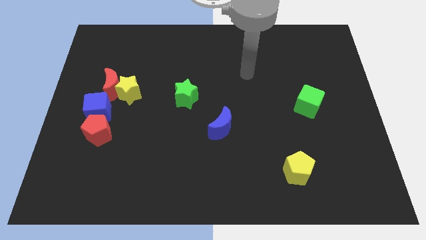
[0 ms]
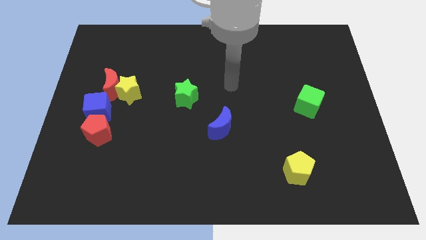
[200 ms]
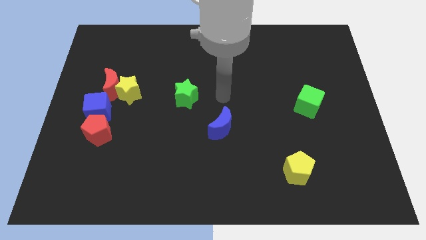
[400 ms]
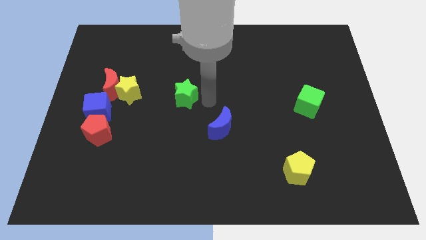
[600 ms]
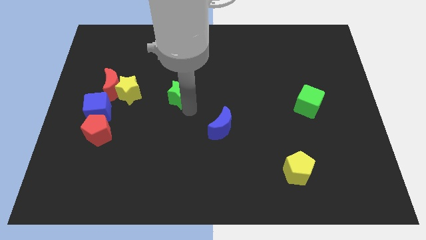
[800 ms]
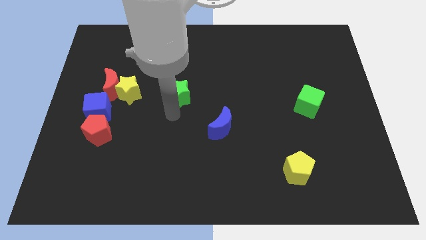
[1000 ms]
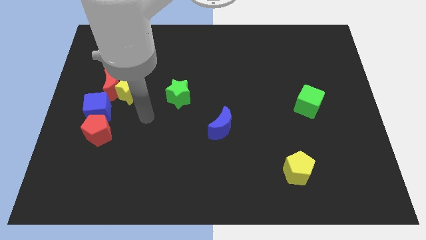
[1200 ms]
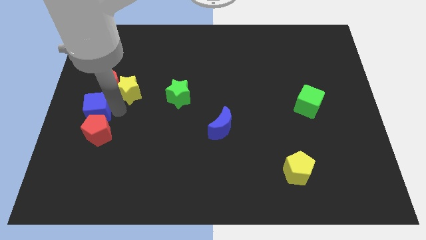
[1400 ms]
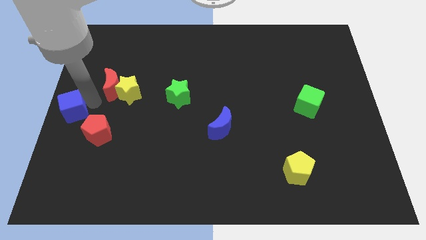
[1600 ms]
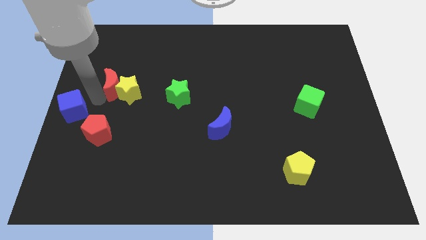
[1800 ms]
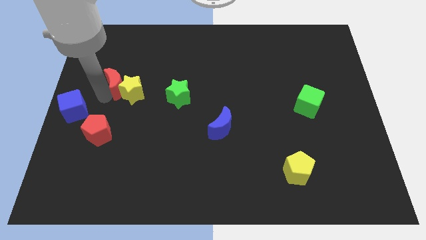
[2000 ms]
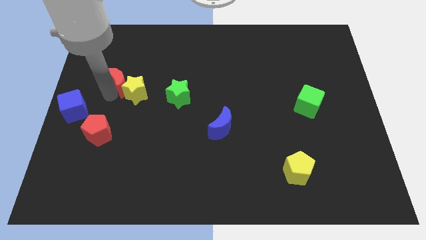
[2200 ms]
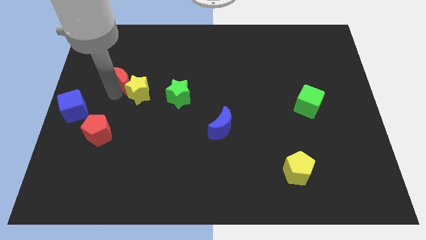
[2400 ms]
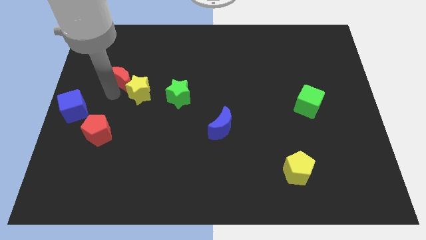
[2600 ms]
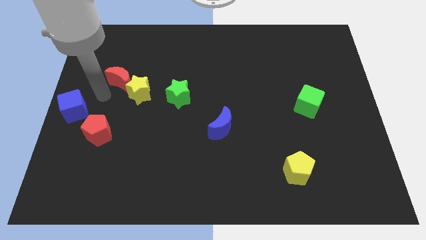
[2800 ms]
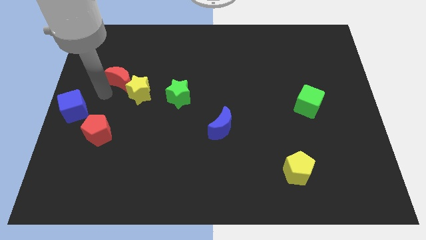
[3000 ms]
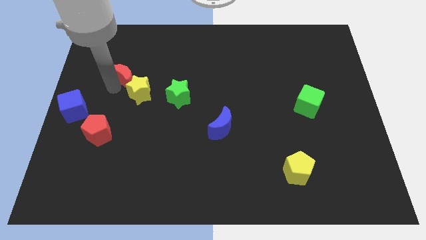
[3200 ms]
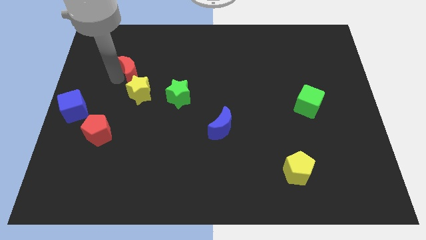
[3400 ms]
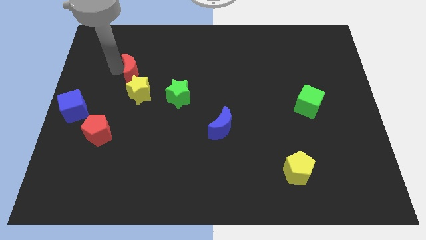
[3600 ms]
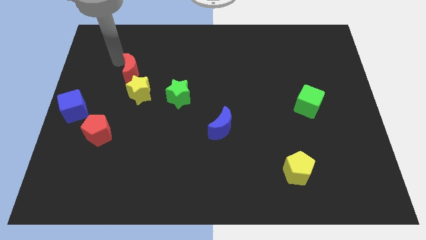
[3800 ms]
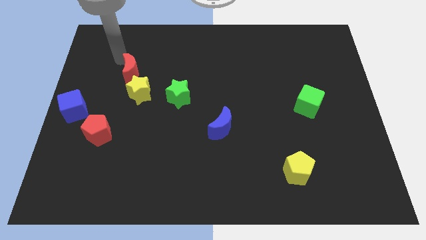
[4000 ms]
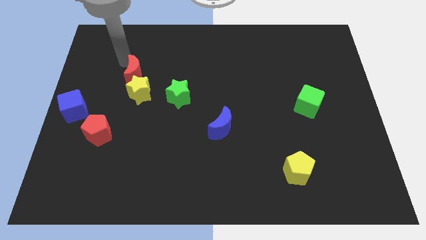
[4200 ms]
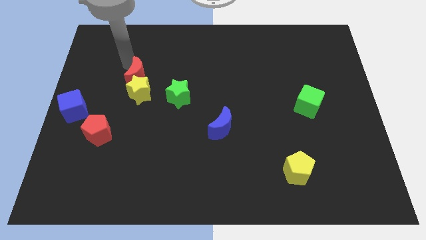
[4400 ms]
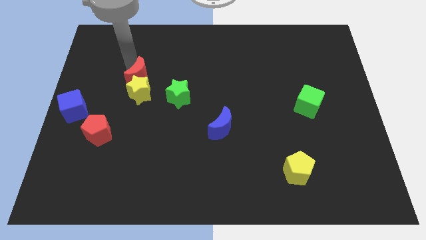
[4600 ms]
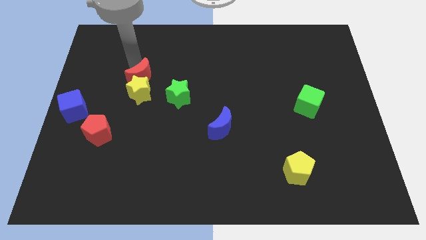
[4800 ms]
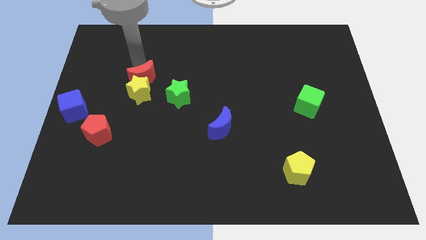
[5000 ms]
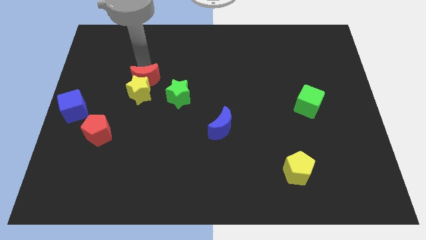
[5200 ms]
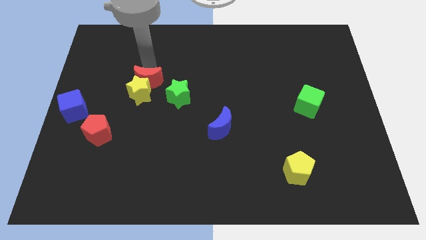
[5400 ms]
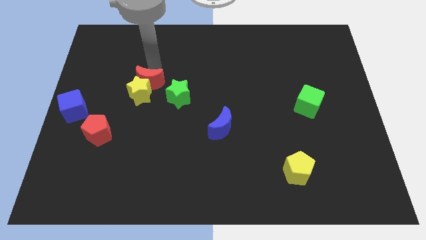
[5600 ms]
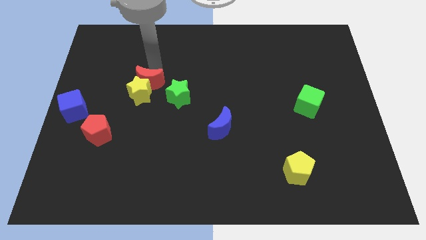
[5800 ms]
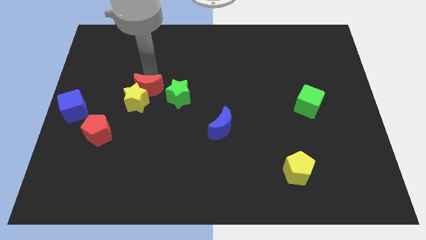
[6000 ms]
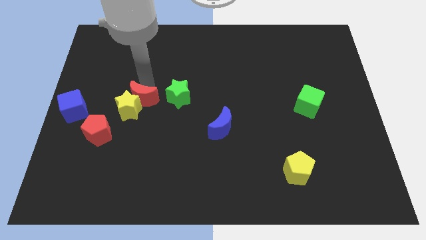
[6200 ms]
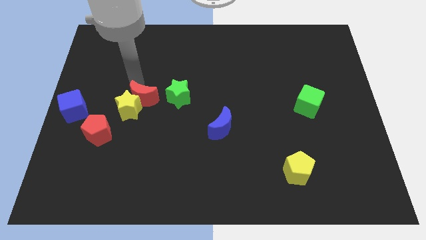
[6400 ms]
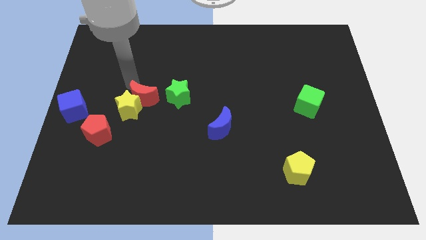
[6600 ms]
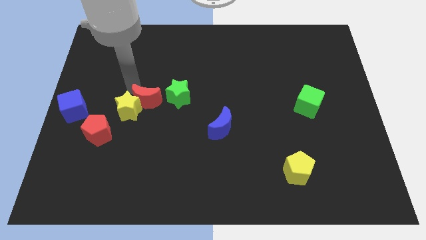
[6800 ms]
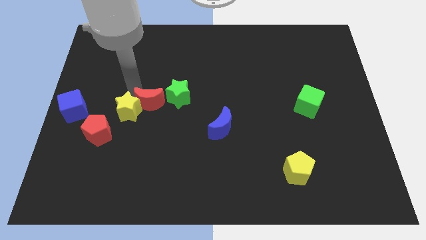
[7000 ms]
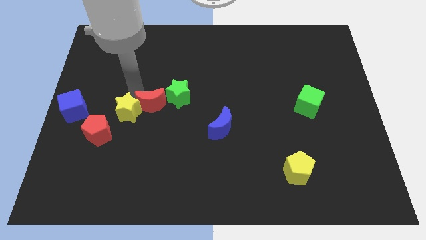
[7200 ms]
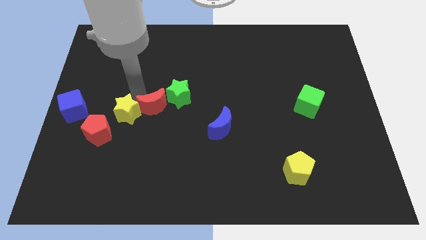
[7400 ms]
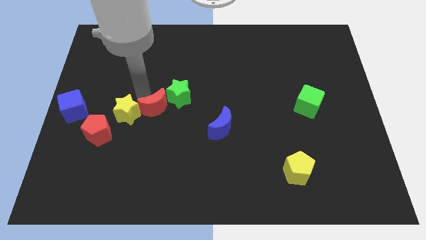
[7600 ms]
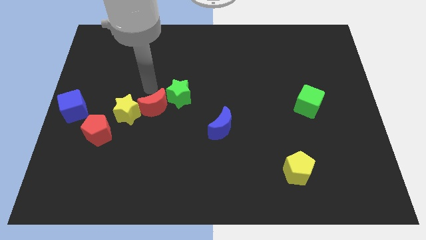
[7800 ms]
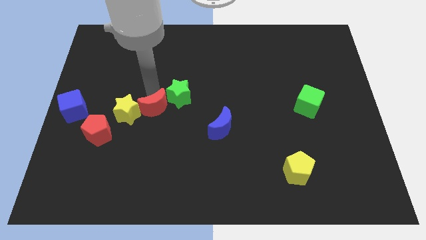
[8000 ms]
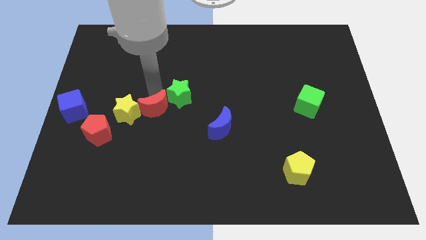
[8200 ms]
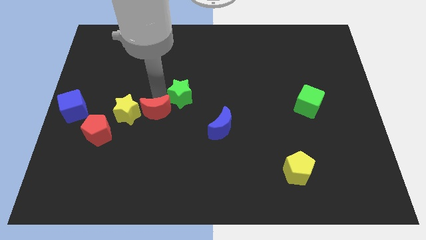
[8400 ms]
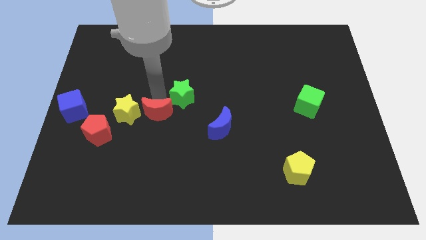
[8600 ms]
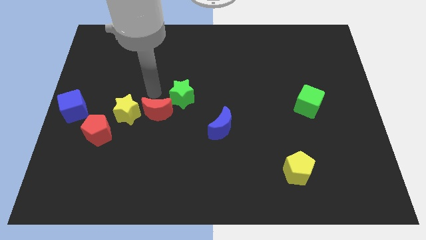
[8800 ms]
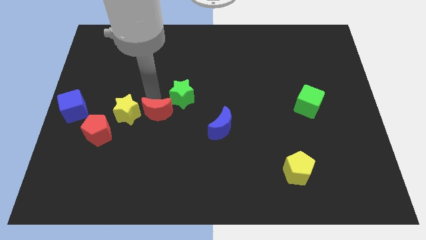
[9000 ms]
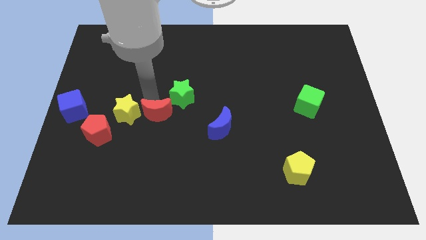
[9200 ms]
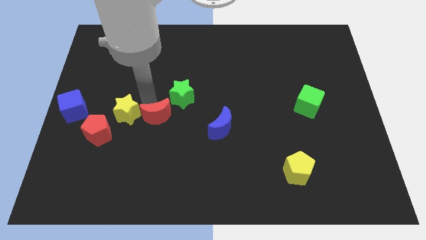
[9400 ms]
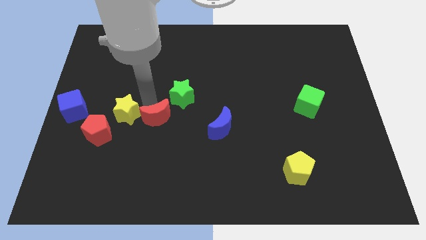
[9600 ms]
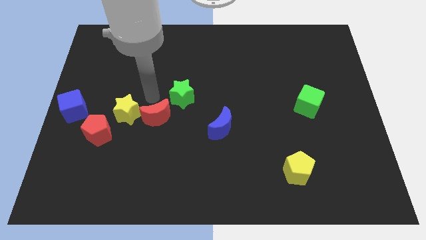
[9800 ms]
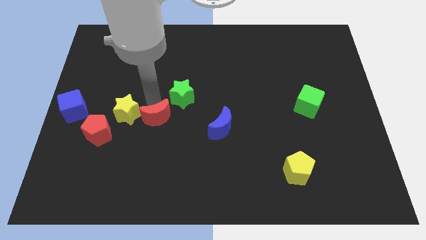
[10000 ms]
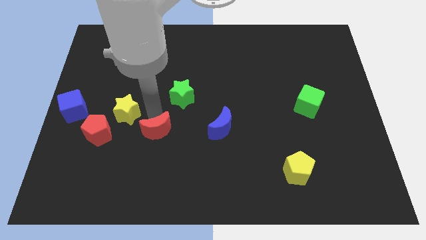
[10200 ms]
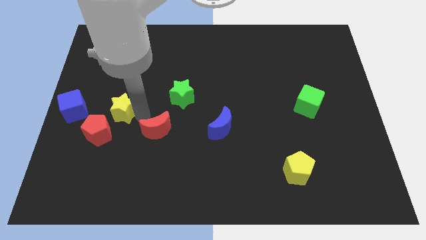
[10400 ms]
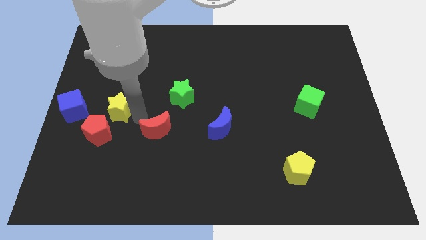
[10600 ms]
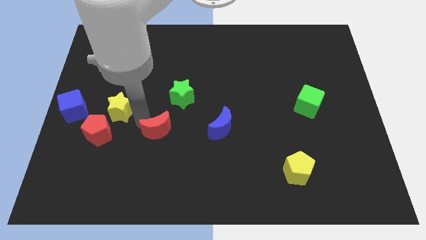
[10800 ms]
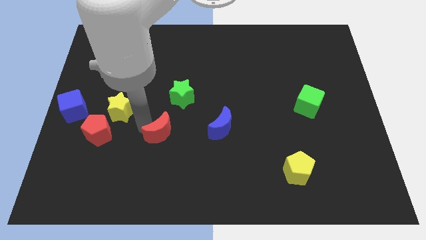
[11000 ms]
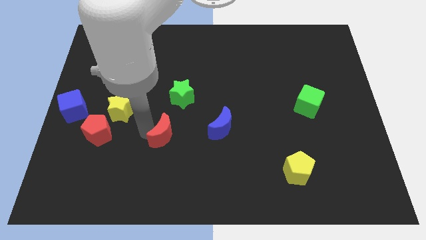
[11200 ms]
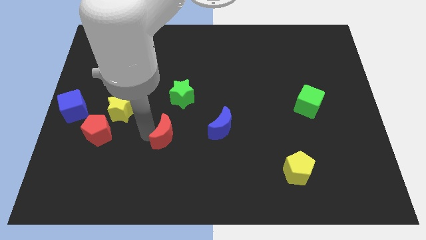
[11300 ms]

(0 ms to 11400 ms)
move the red moon diagonally down and right

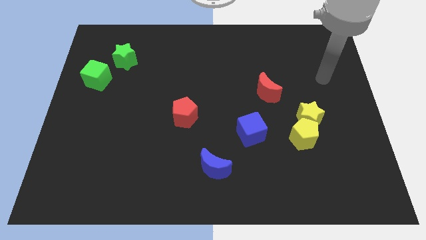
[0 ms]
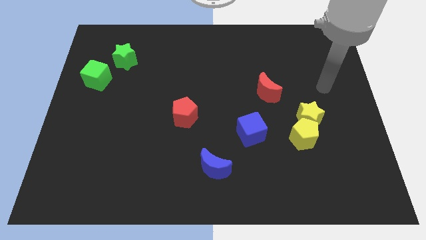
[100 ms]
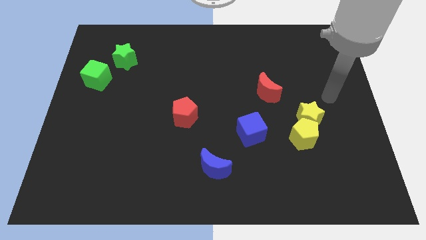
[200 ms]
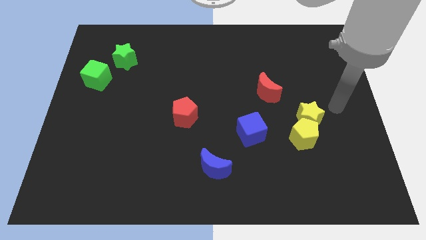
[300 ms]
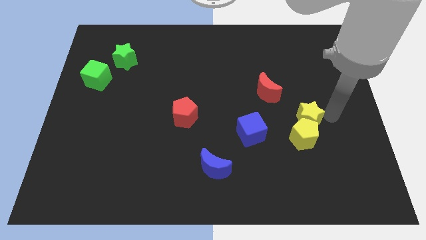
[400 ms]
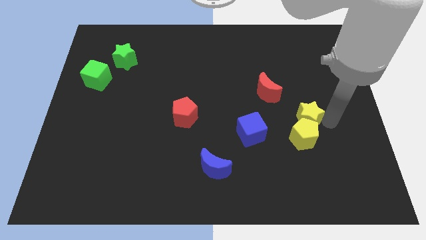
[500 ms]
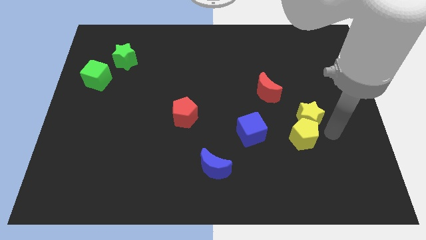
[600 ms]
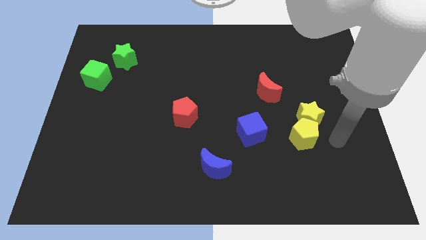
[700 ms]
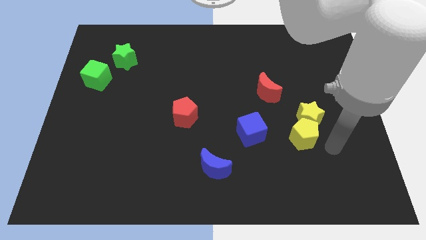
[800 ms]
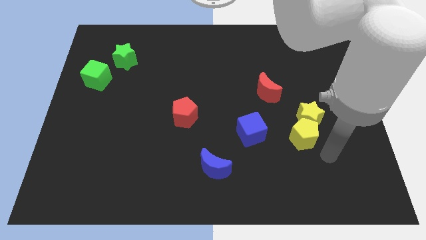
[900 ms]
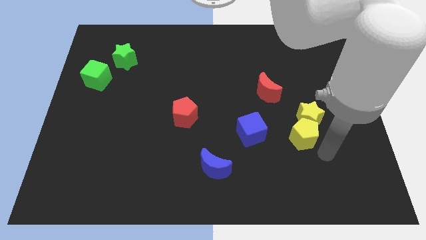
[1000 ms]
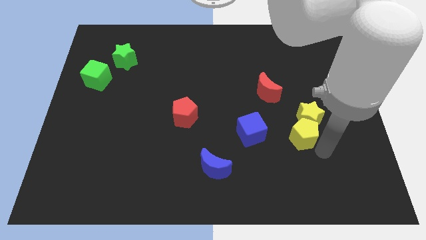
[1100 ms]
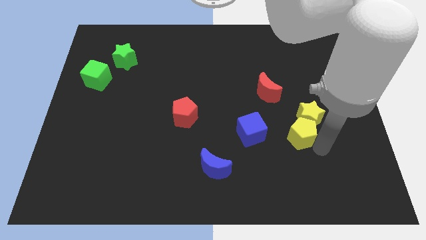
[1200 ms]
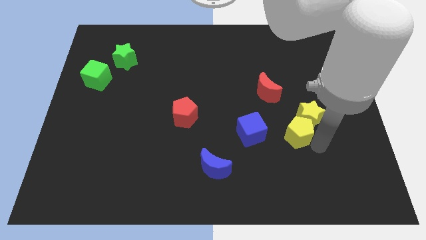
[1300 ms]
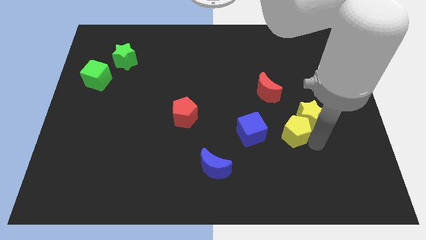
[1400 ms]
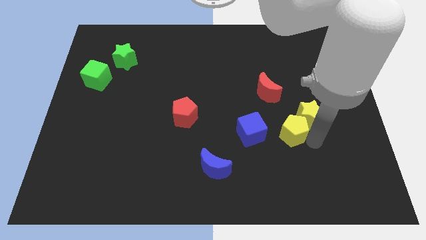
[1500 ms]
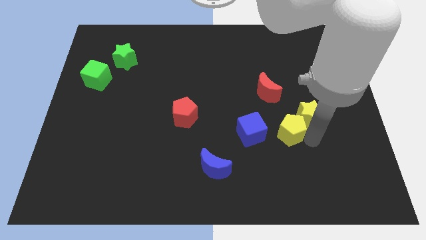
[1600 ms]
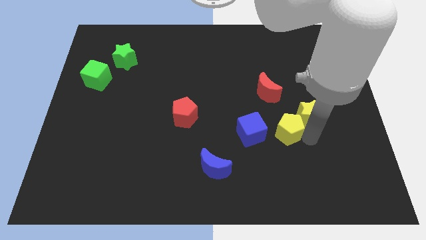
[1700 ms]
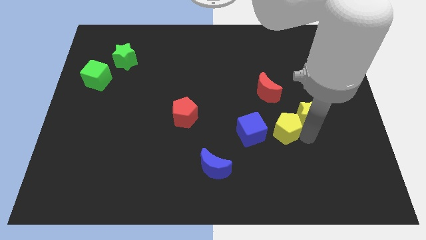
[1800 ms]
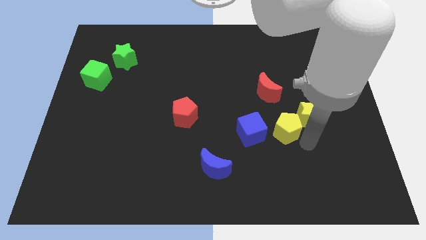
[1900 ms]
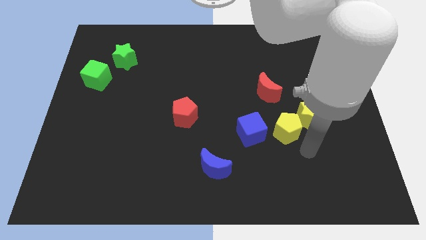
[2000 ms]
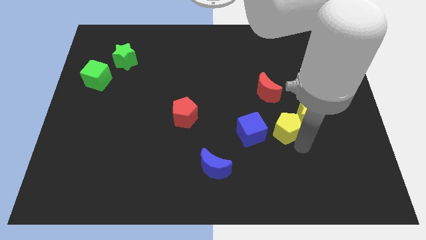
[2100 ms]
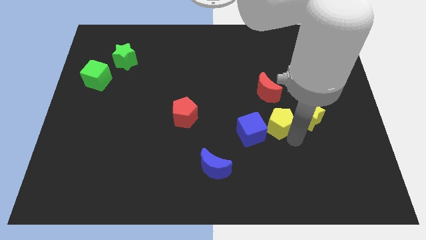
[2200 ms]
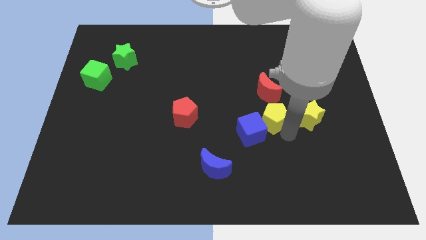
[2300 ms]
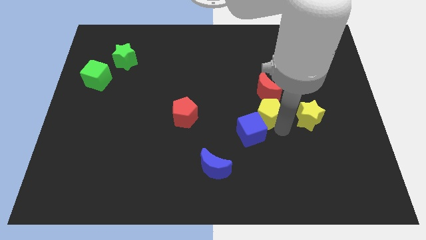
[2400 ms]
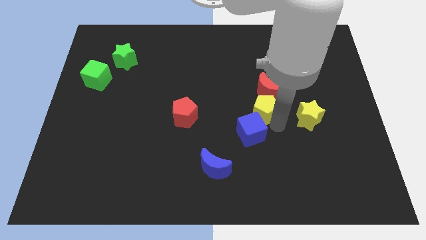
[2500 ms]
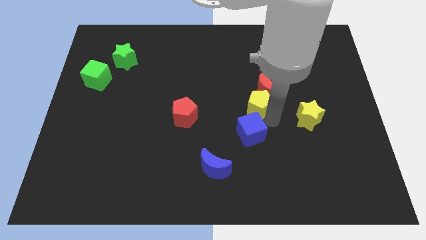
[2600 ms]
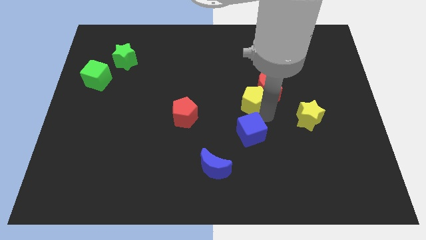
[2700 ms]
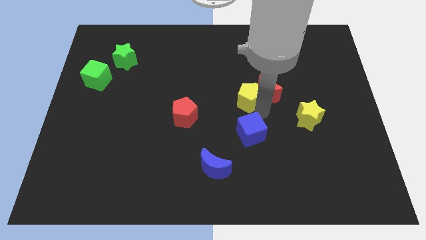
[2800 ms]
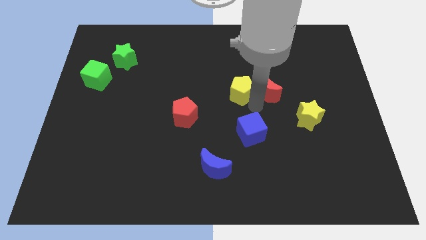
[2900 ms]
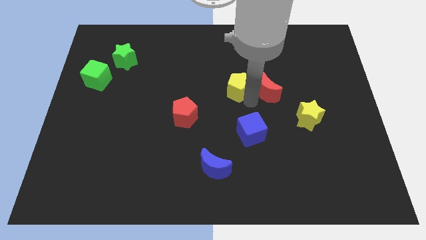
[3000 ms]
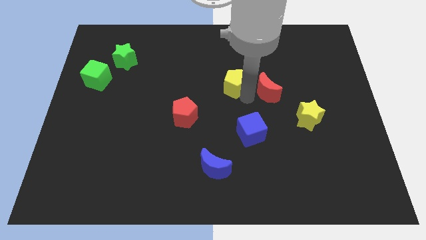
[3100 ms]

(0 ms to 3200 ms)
slide the yellow pentagon upwards and left diagonally
